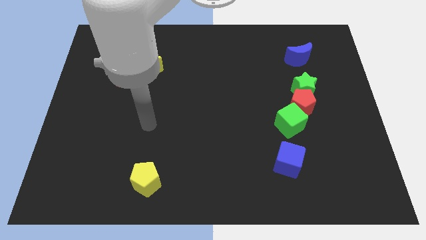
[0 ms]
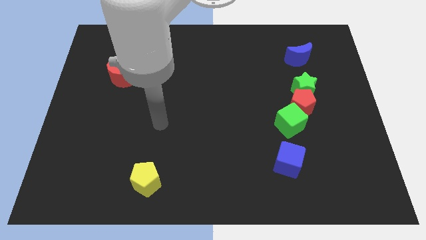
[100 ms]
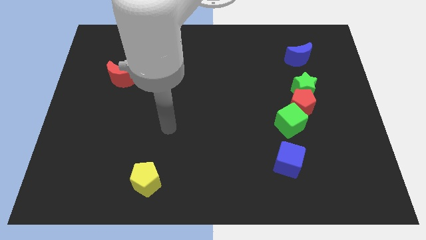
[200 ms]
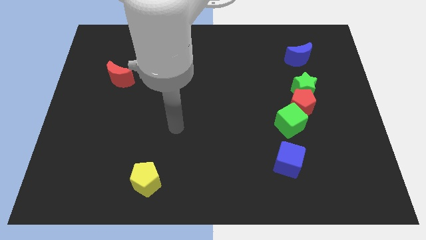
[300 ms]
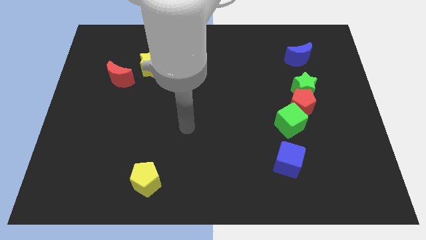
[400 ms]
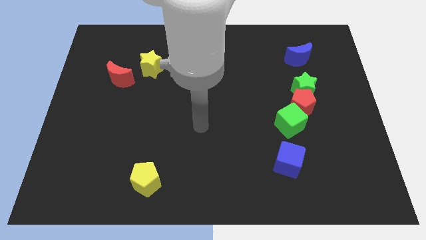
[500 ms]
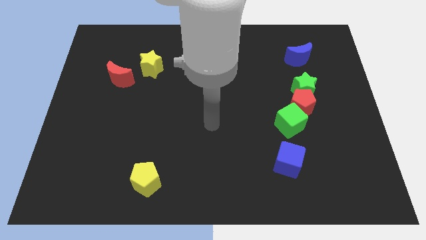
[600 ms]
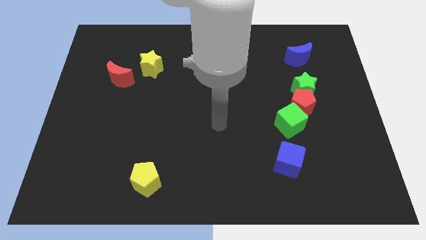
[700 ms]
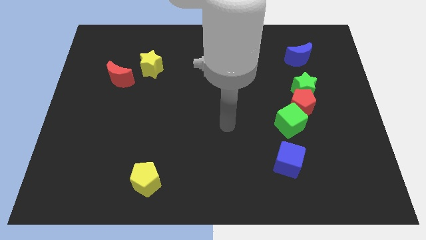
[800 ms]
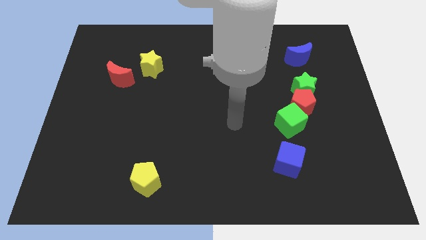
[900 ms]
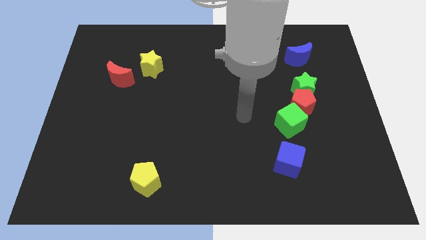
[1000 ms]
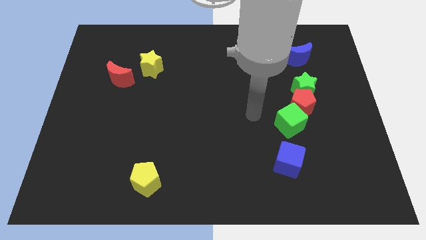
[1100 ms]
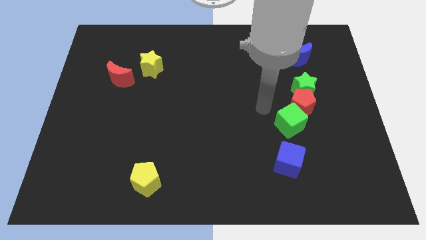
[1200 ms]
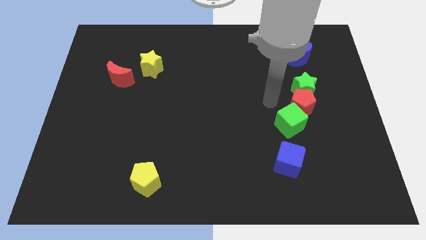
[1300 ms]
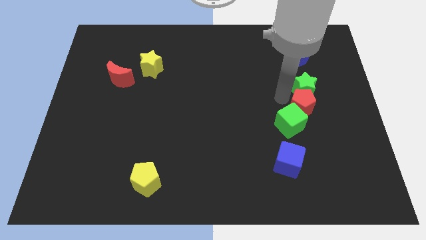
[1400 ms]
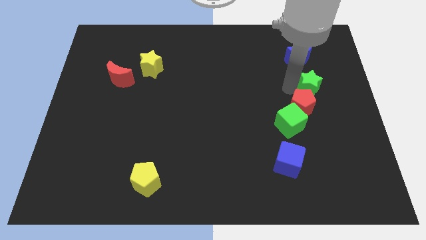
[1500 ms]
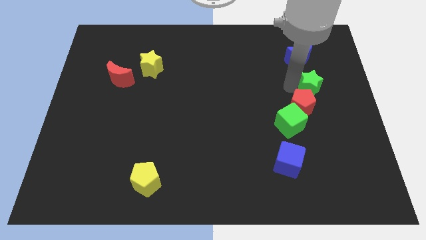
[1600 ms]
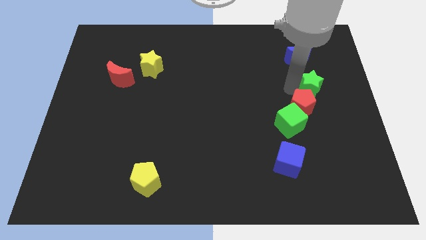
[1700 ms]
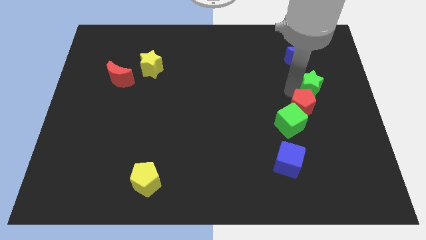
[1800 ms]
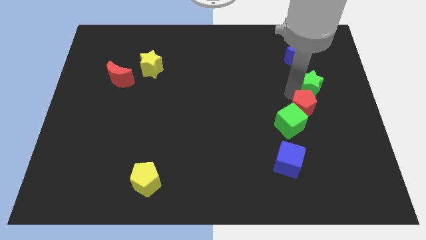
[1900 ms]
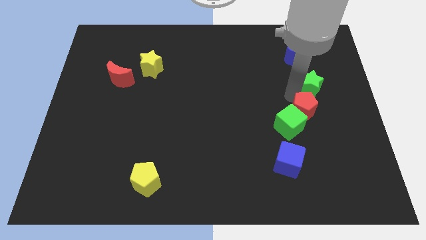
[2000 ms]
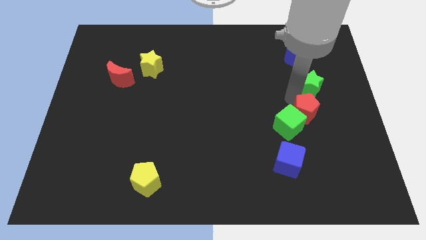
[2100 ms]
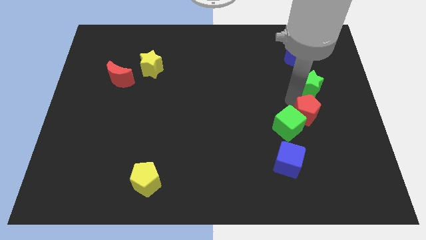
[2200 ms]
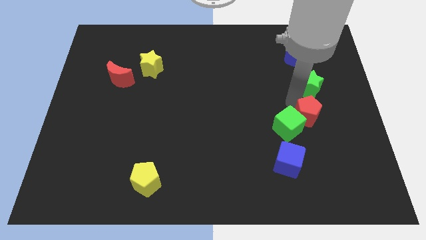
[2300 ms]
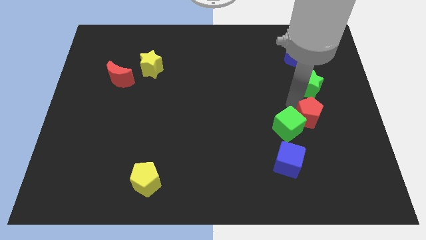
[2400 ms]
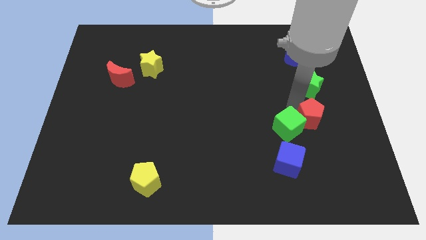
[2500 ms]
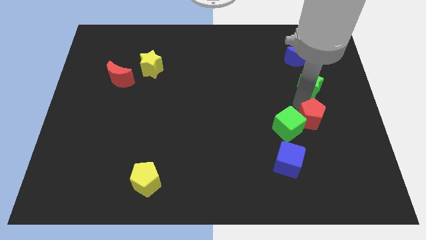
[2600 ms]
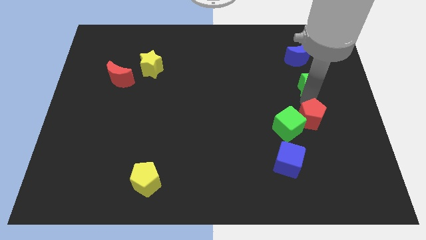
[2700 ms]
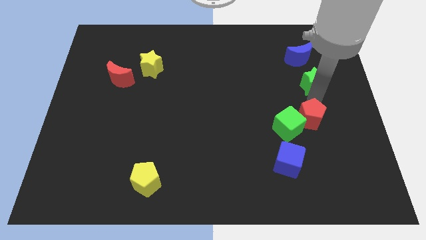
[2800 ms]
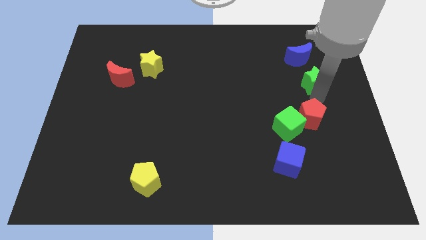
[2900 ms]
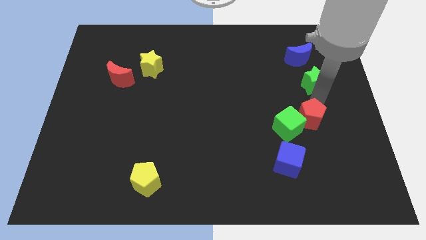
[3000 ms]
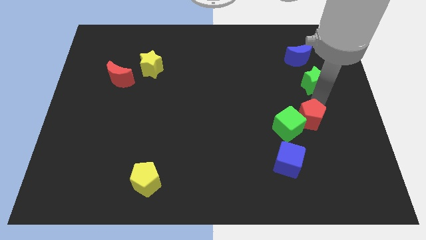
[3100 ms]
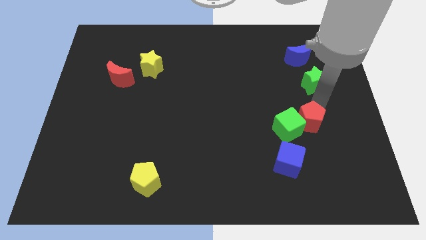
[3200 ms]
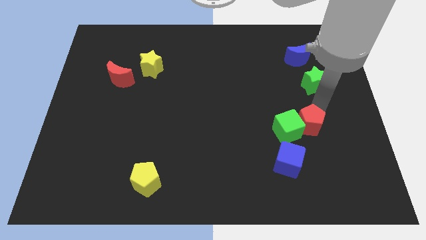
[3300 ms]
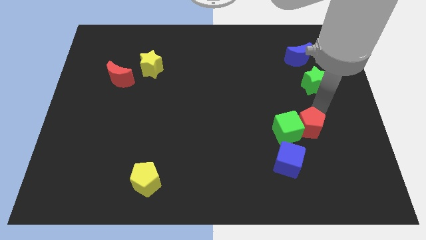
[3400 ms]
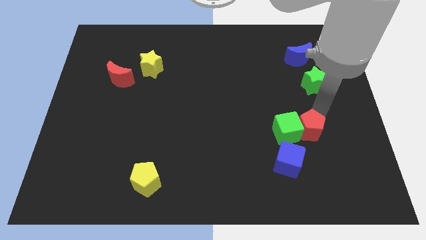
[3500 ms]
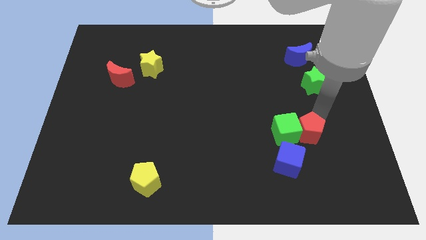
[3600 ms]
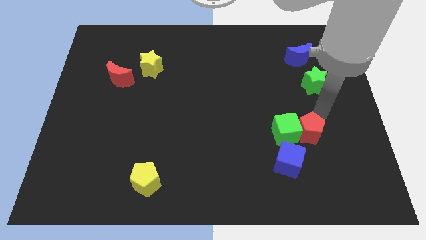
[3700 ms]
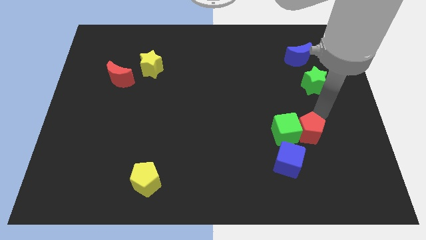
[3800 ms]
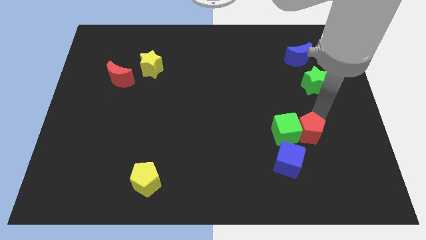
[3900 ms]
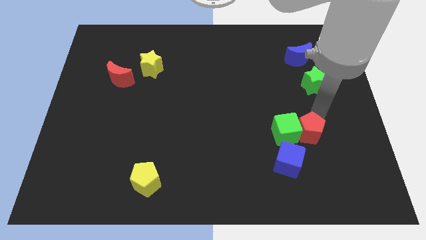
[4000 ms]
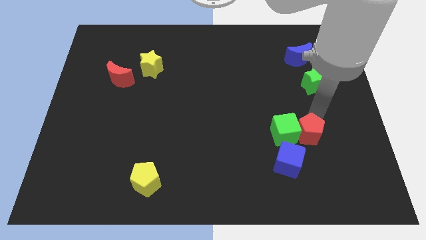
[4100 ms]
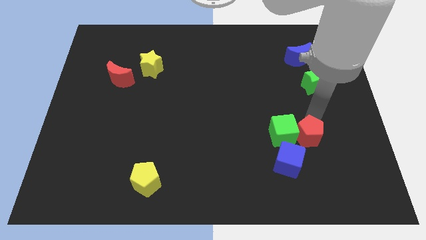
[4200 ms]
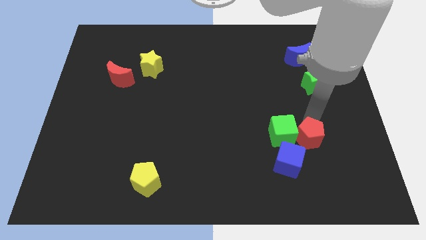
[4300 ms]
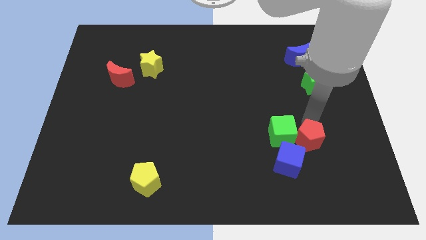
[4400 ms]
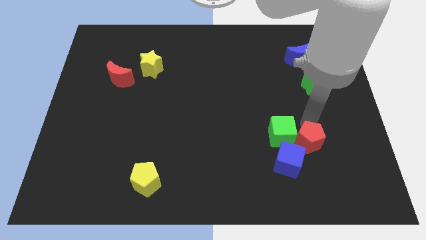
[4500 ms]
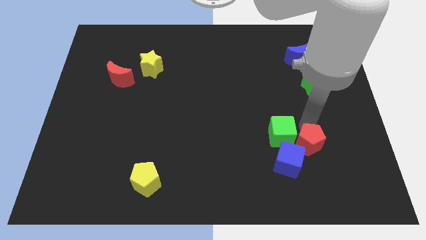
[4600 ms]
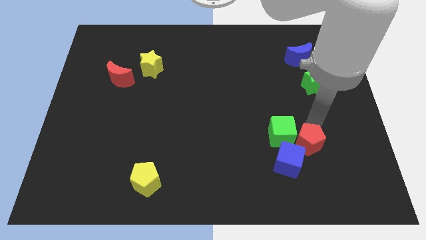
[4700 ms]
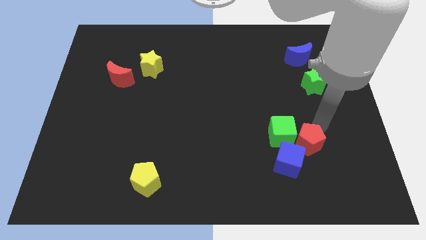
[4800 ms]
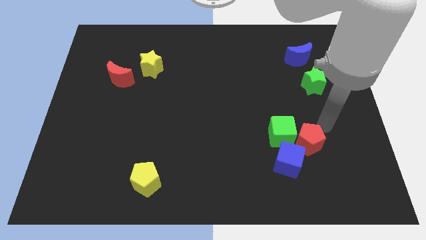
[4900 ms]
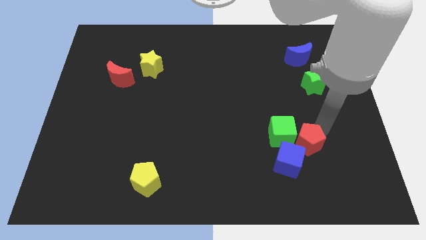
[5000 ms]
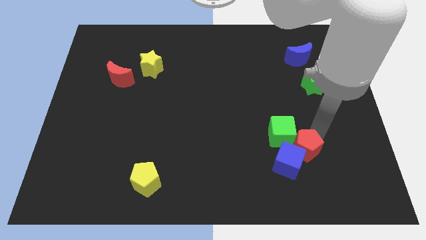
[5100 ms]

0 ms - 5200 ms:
put the red pentagon next to the blue cube

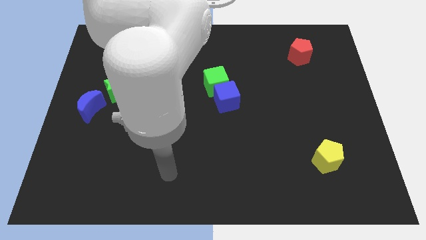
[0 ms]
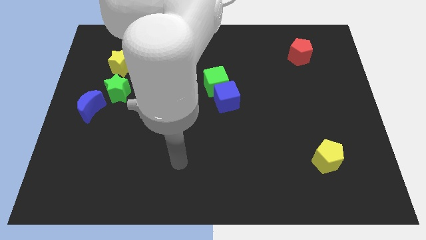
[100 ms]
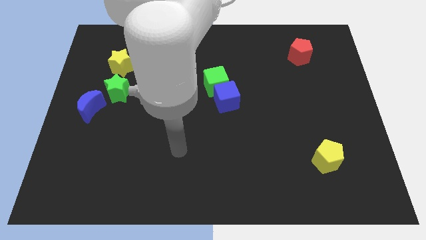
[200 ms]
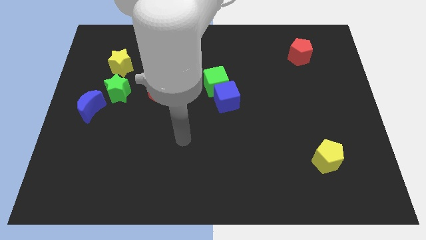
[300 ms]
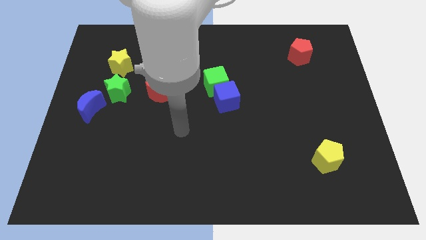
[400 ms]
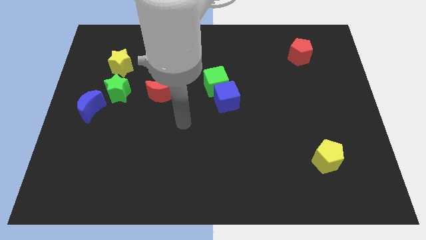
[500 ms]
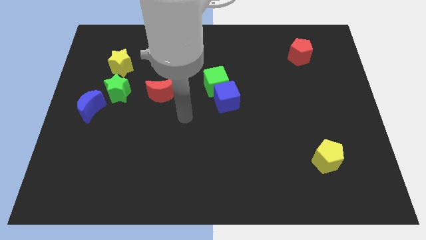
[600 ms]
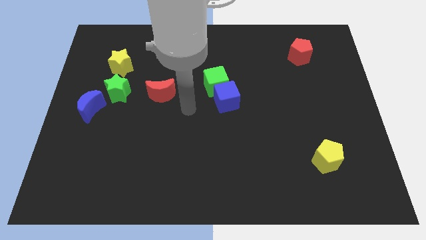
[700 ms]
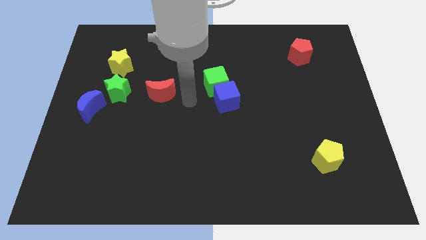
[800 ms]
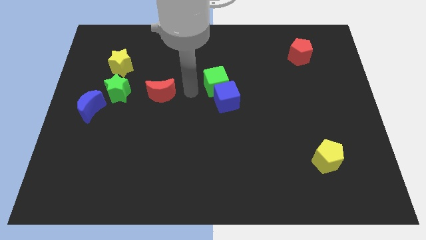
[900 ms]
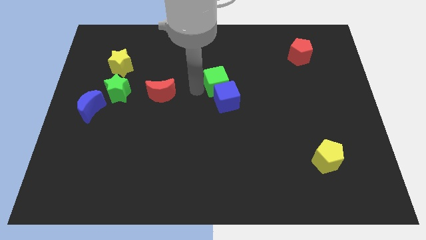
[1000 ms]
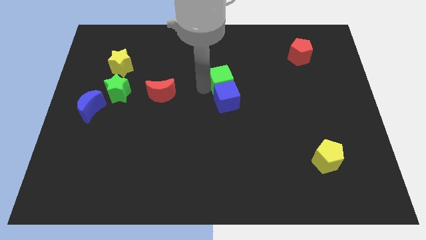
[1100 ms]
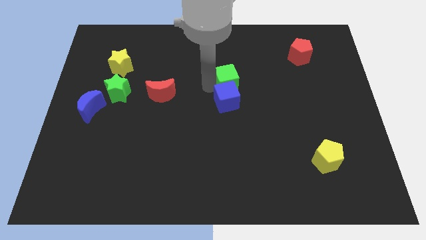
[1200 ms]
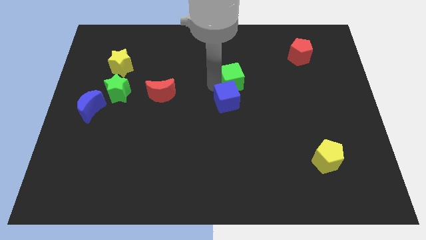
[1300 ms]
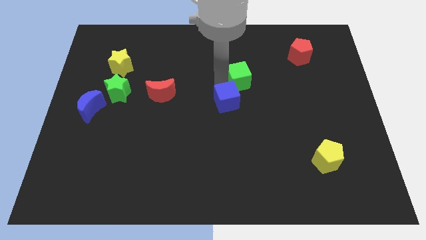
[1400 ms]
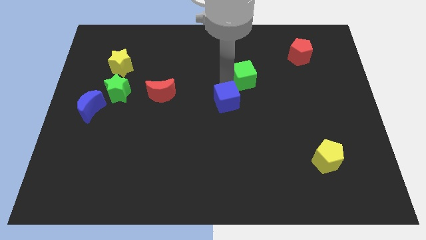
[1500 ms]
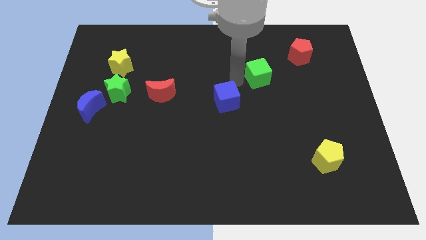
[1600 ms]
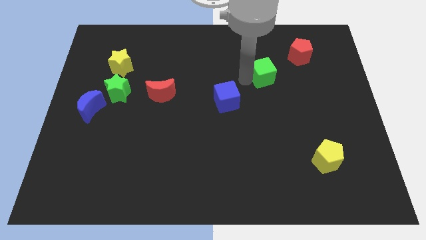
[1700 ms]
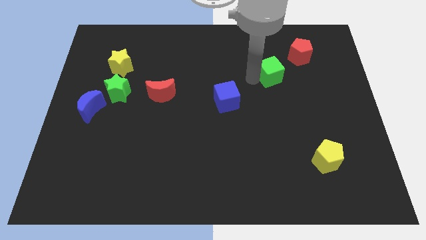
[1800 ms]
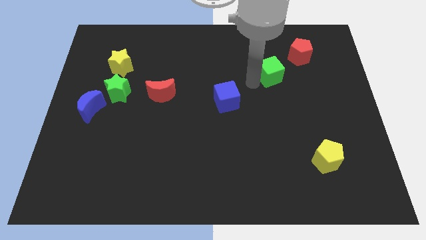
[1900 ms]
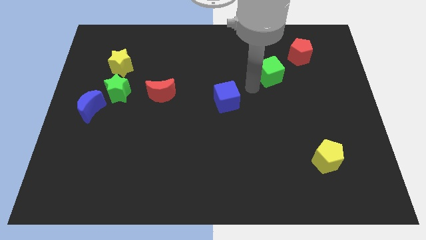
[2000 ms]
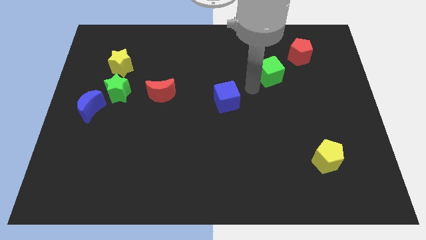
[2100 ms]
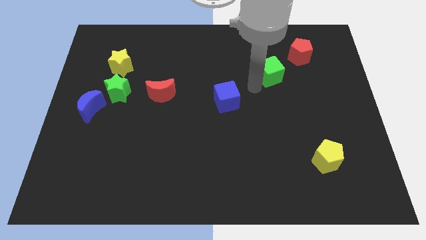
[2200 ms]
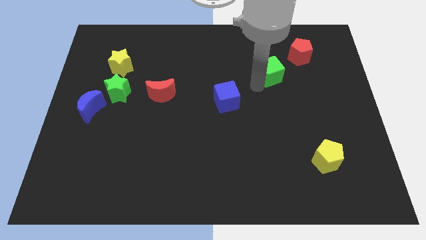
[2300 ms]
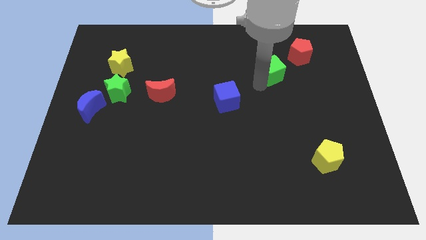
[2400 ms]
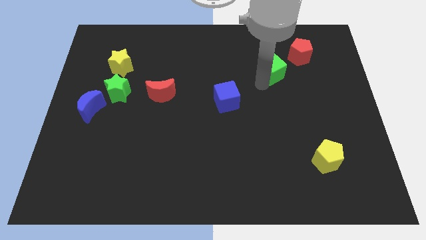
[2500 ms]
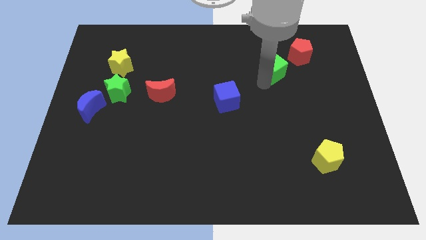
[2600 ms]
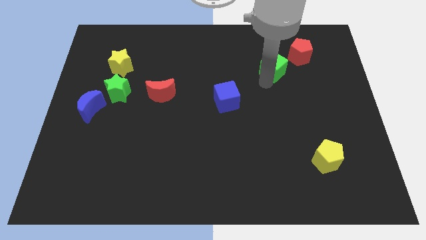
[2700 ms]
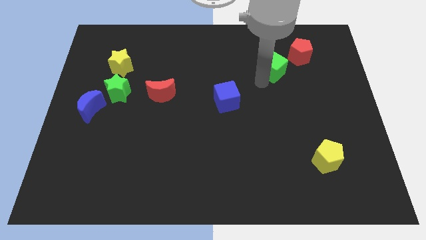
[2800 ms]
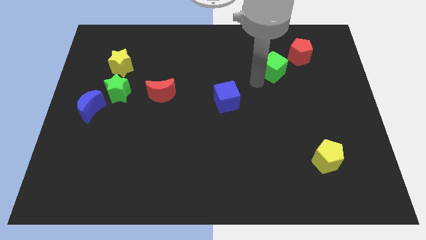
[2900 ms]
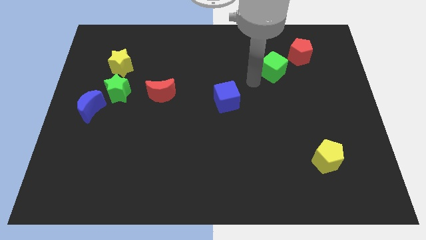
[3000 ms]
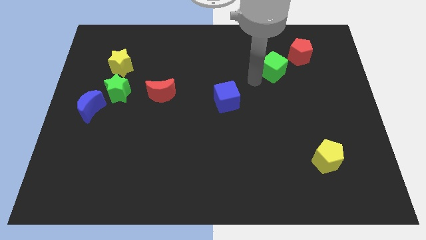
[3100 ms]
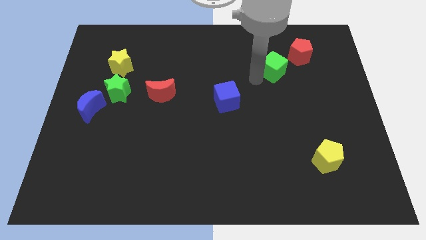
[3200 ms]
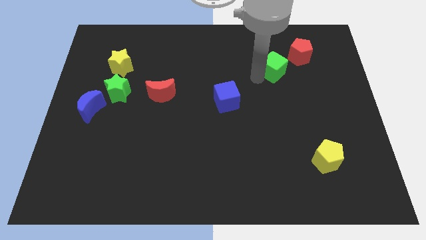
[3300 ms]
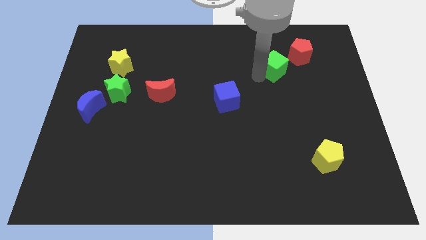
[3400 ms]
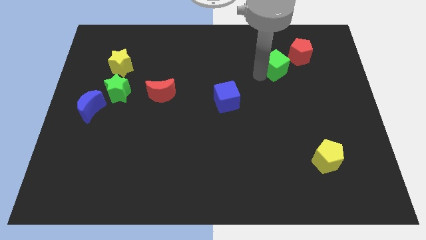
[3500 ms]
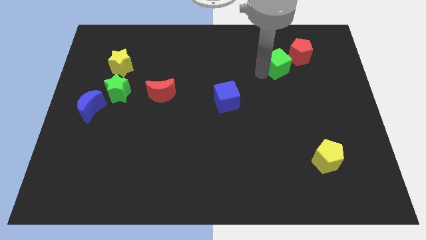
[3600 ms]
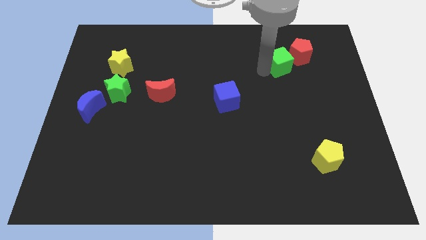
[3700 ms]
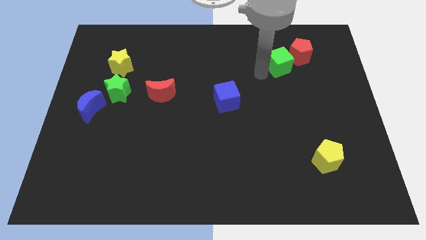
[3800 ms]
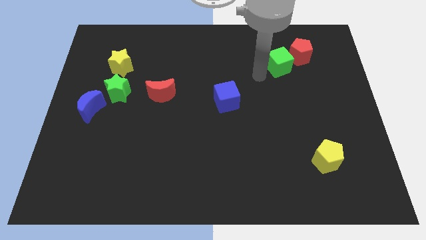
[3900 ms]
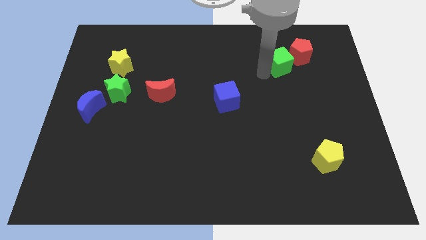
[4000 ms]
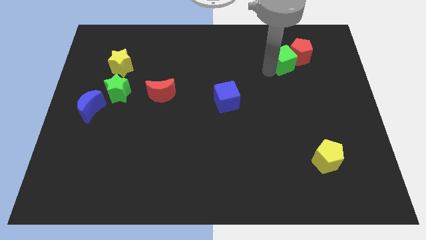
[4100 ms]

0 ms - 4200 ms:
push the green cube towards the red pentagon
